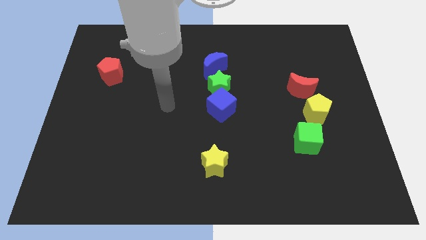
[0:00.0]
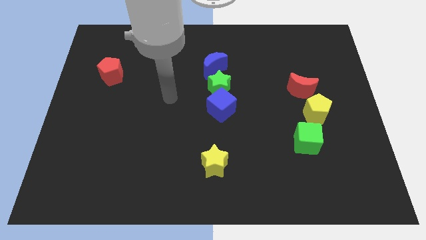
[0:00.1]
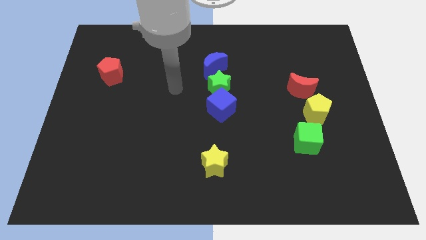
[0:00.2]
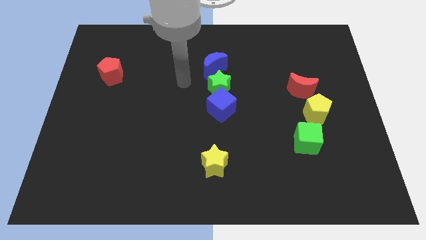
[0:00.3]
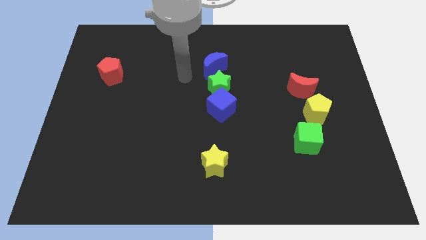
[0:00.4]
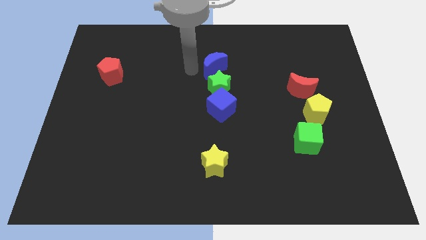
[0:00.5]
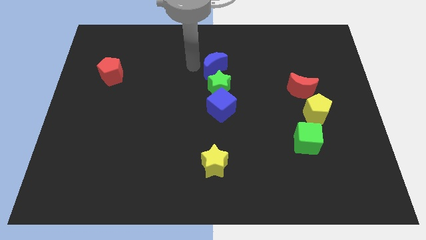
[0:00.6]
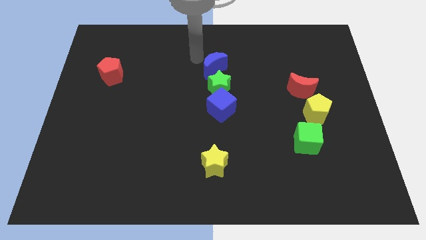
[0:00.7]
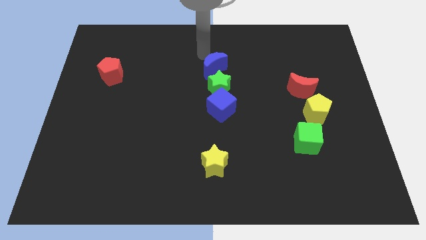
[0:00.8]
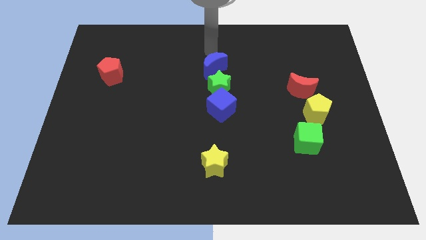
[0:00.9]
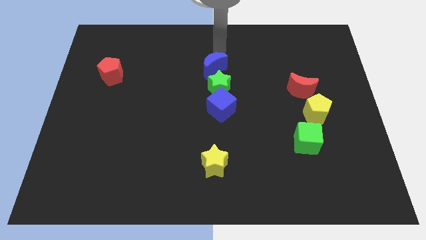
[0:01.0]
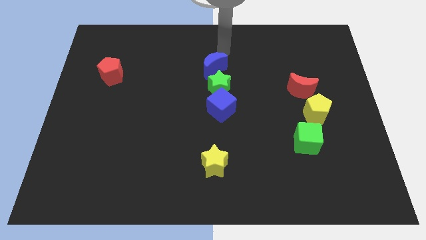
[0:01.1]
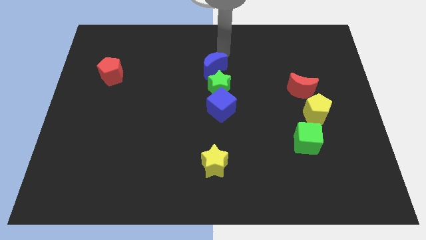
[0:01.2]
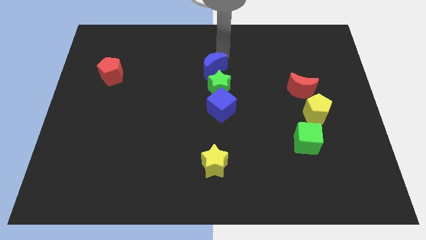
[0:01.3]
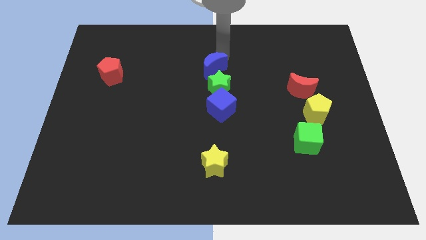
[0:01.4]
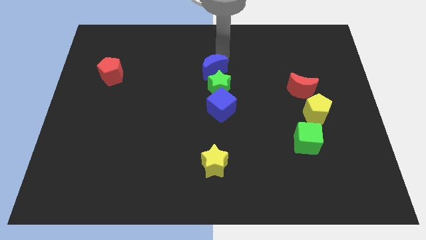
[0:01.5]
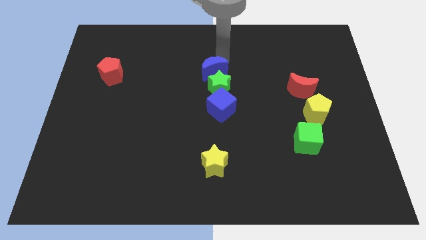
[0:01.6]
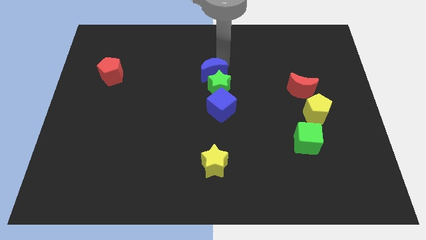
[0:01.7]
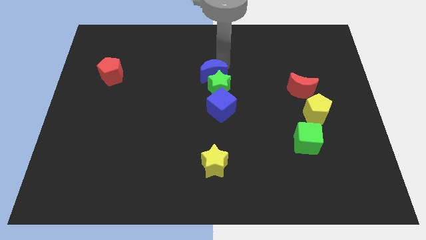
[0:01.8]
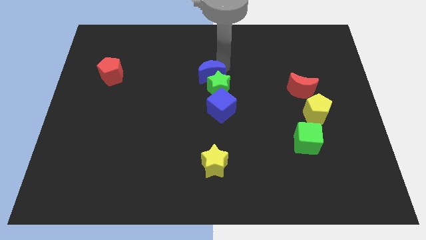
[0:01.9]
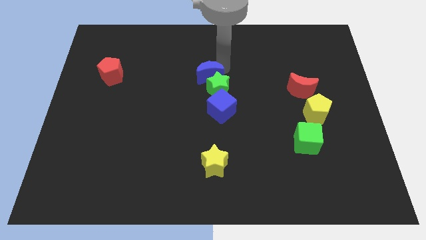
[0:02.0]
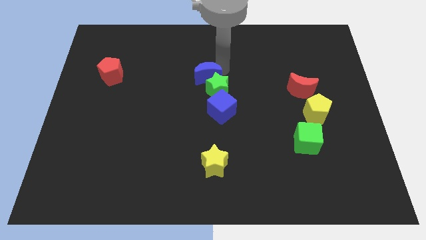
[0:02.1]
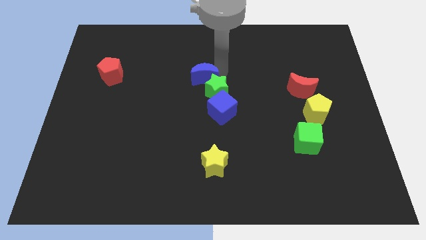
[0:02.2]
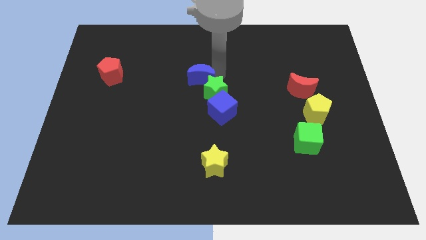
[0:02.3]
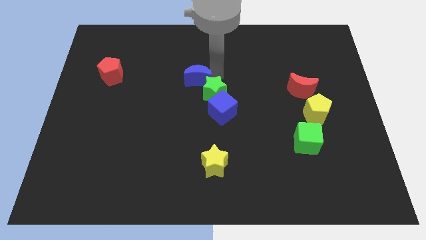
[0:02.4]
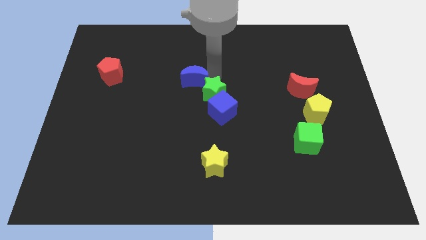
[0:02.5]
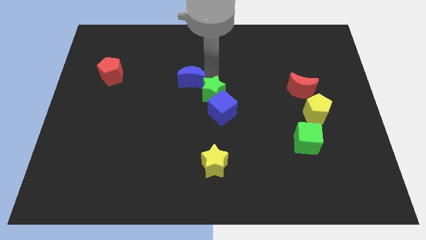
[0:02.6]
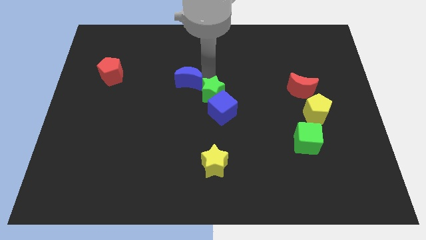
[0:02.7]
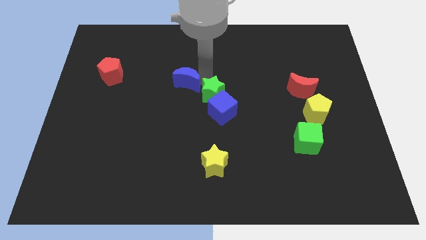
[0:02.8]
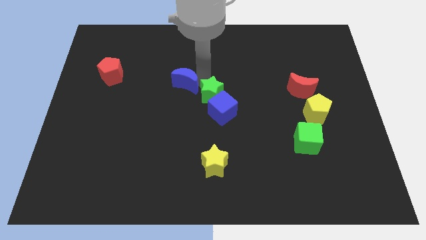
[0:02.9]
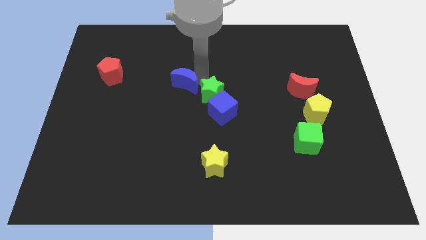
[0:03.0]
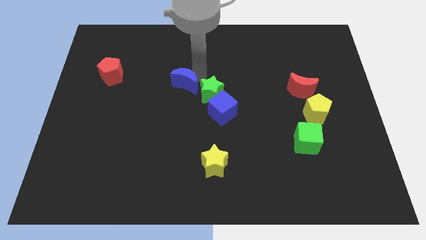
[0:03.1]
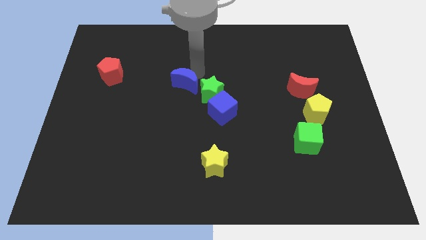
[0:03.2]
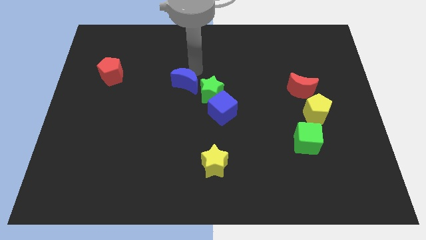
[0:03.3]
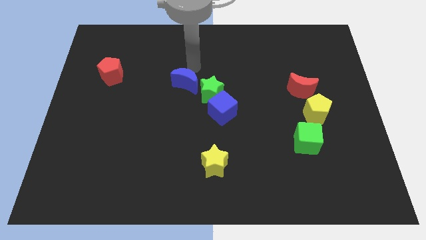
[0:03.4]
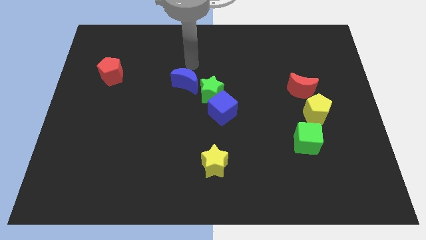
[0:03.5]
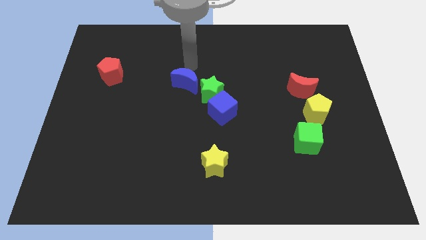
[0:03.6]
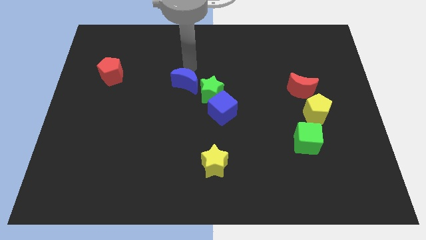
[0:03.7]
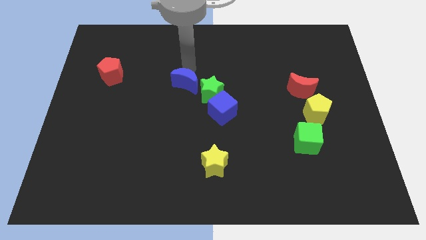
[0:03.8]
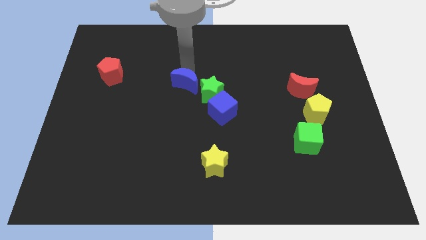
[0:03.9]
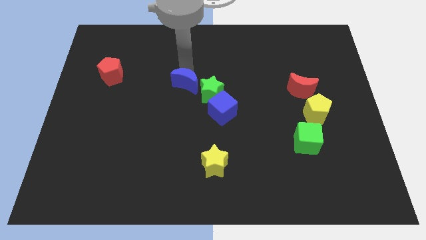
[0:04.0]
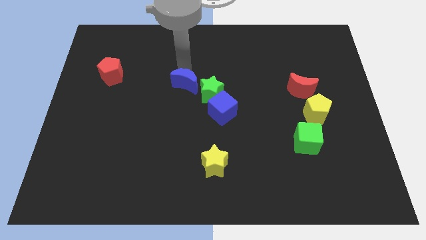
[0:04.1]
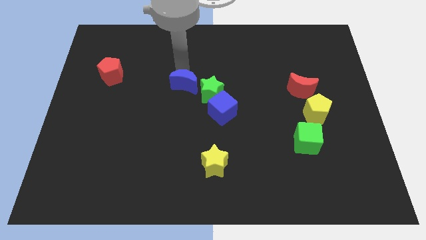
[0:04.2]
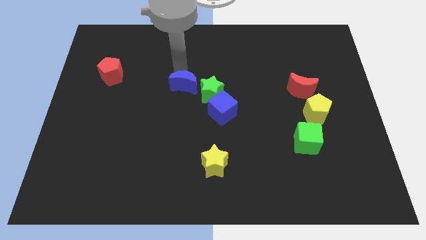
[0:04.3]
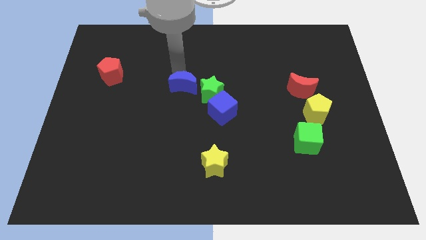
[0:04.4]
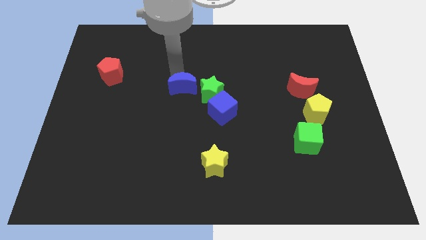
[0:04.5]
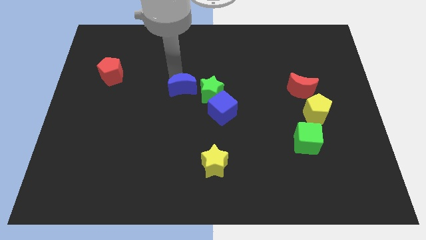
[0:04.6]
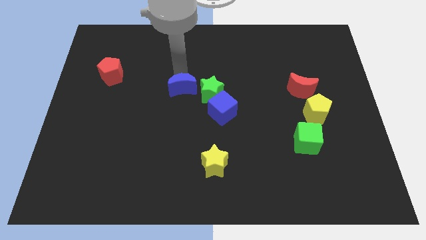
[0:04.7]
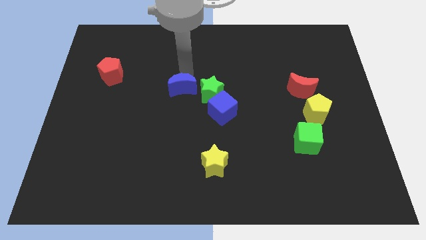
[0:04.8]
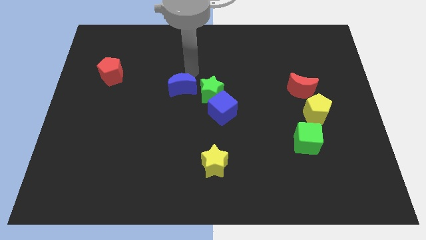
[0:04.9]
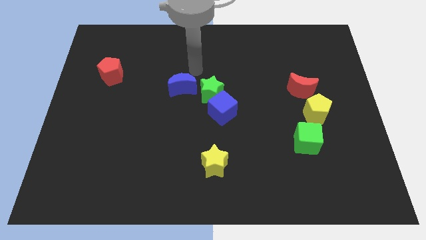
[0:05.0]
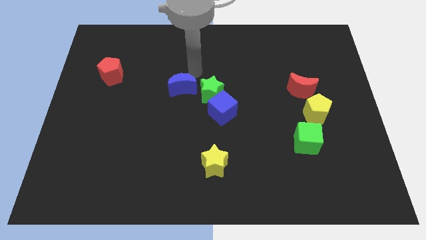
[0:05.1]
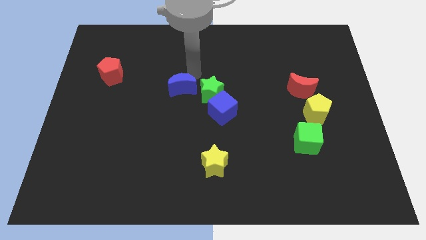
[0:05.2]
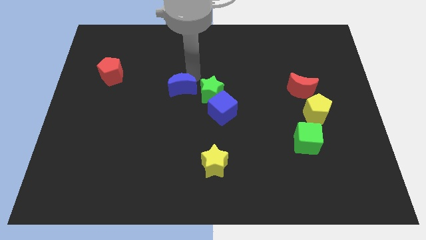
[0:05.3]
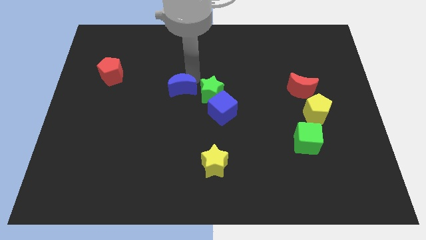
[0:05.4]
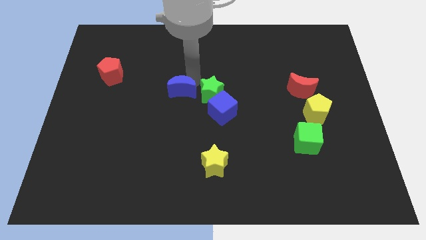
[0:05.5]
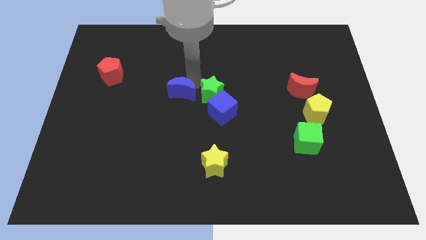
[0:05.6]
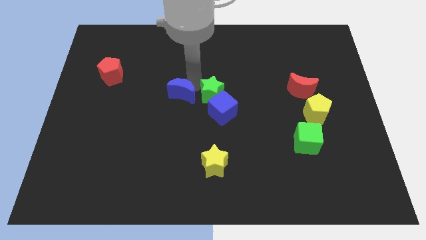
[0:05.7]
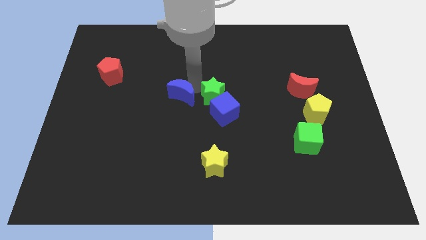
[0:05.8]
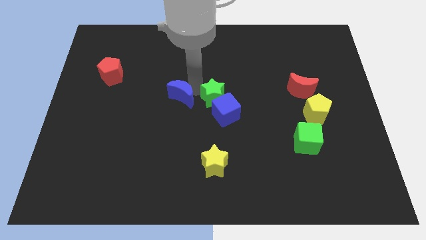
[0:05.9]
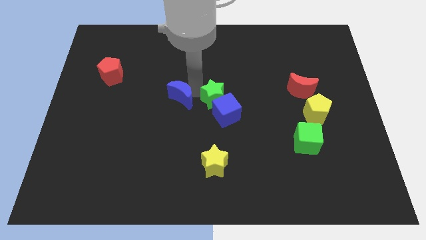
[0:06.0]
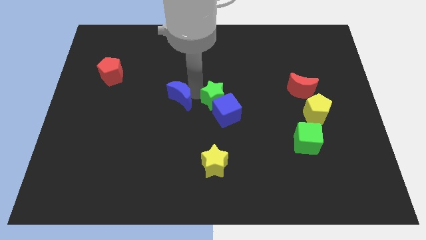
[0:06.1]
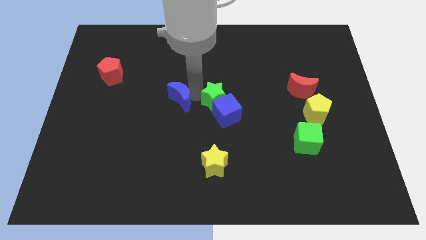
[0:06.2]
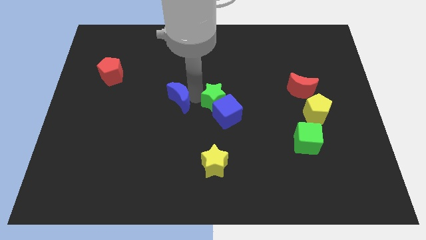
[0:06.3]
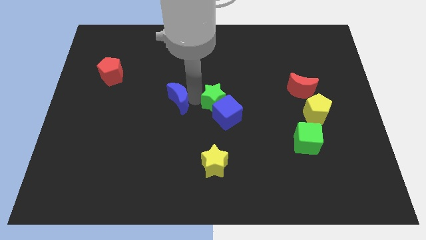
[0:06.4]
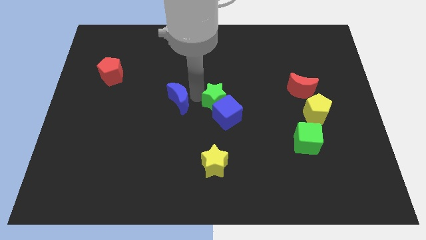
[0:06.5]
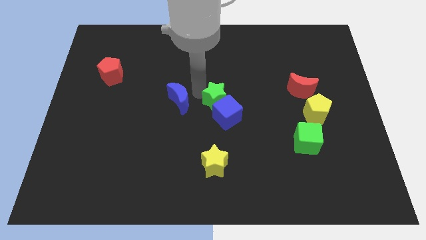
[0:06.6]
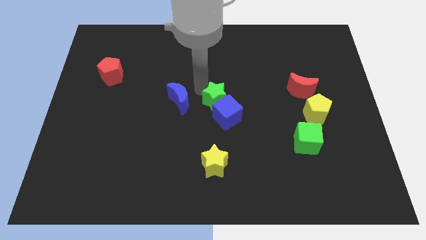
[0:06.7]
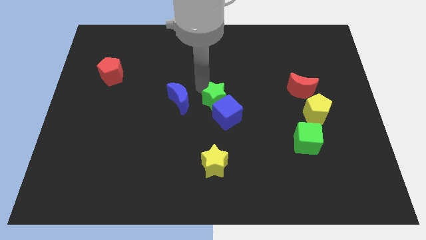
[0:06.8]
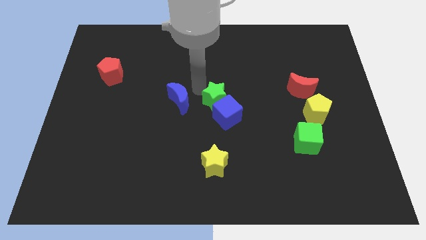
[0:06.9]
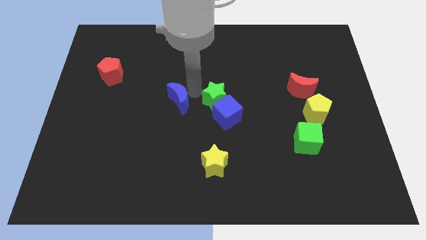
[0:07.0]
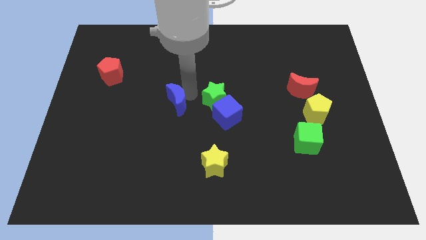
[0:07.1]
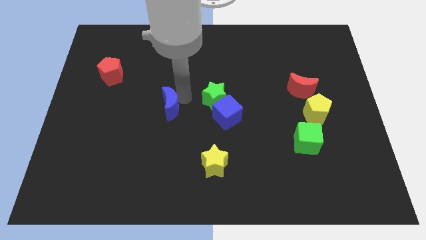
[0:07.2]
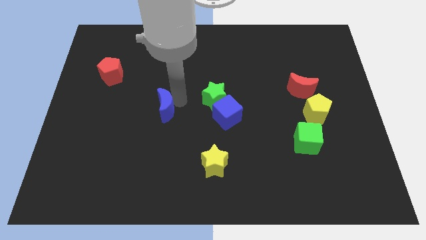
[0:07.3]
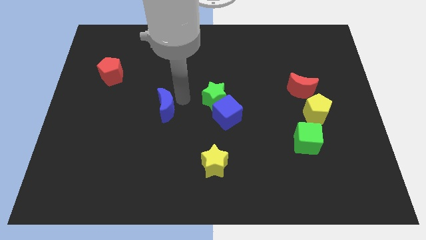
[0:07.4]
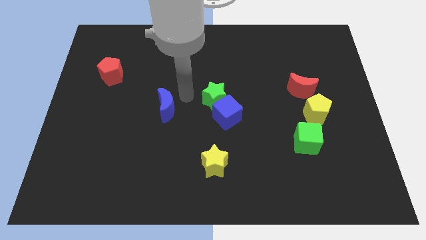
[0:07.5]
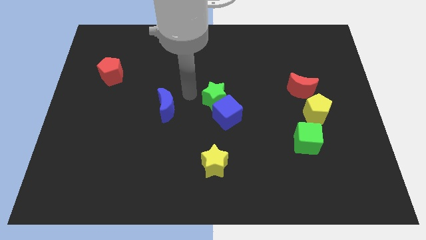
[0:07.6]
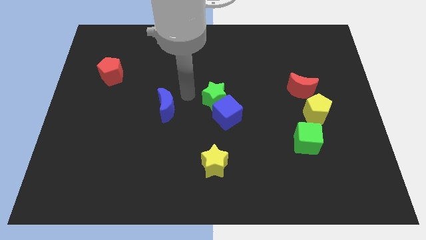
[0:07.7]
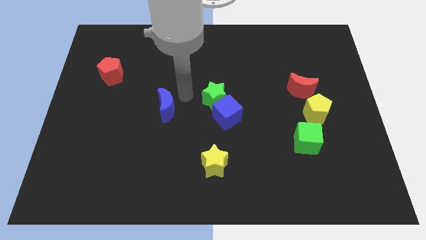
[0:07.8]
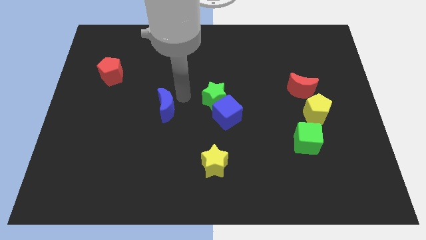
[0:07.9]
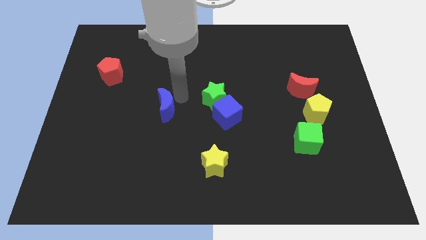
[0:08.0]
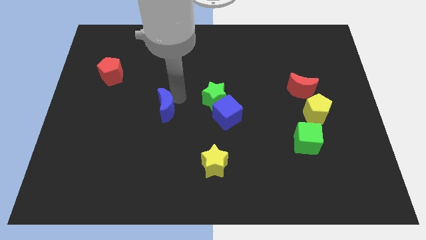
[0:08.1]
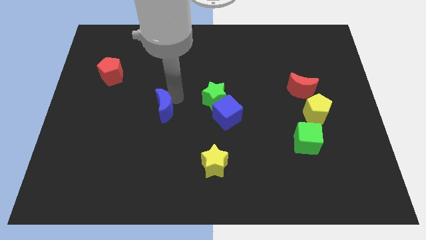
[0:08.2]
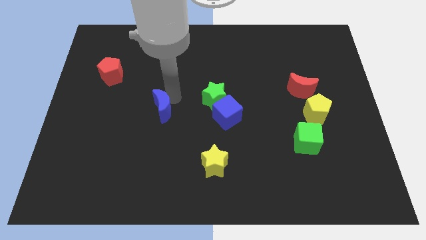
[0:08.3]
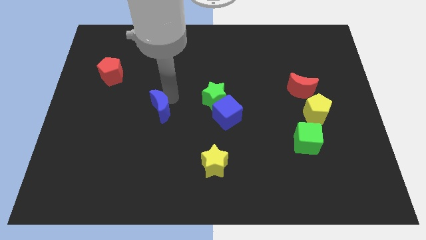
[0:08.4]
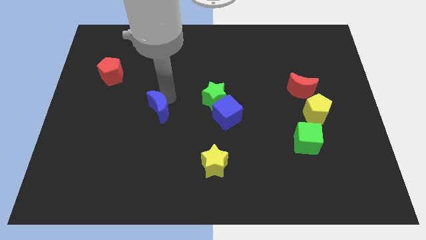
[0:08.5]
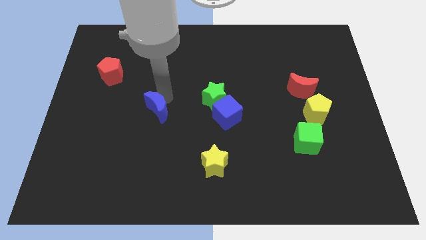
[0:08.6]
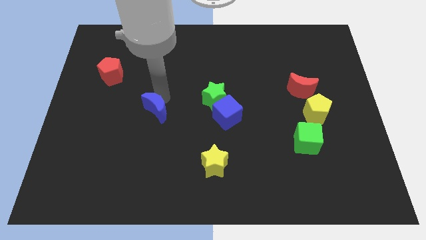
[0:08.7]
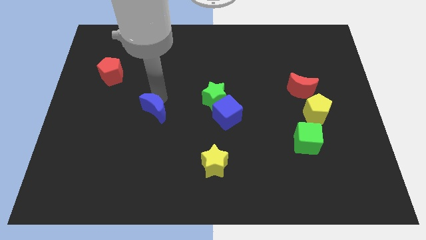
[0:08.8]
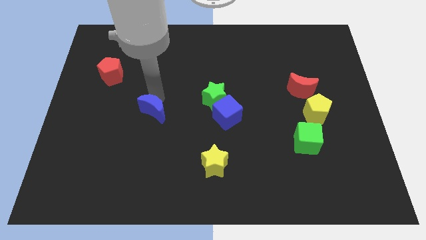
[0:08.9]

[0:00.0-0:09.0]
move the blue moon downwards and to the left
